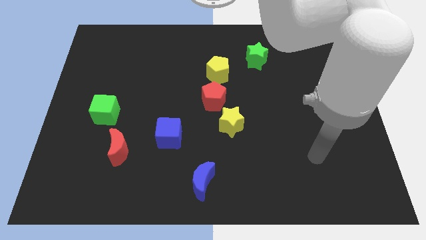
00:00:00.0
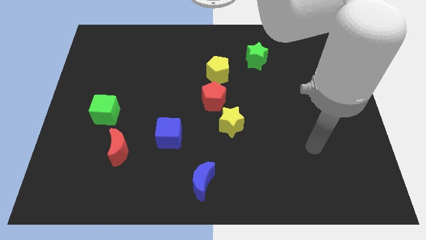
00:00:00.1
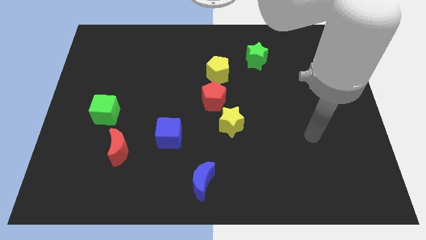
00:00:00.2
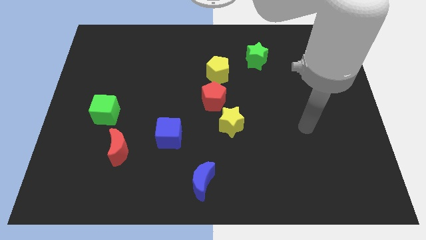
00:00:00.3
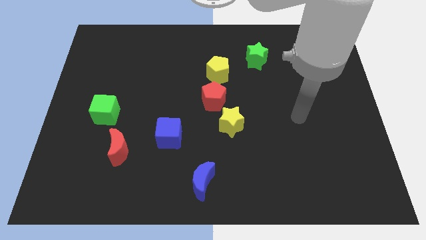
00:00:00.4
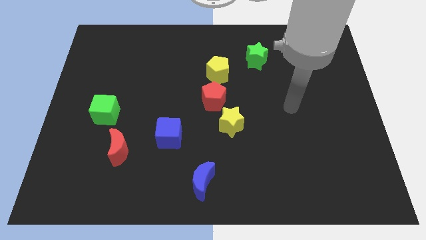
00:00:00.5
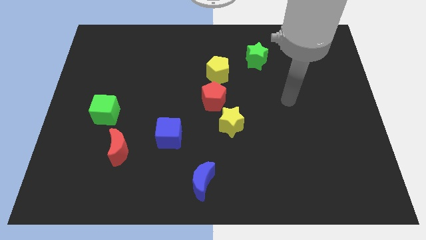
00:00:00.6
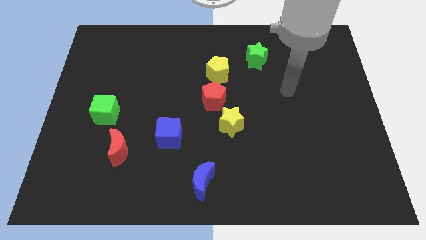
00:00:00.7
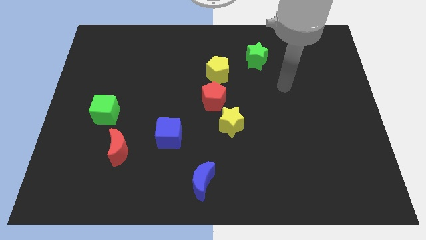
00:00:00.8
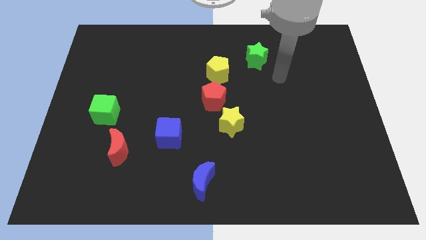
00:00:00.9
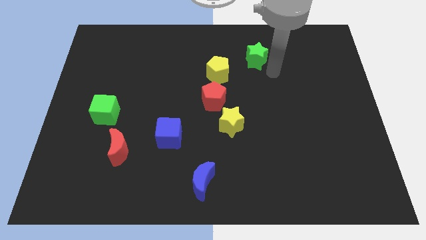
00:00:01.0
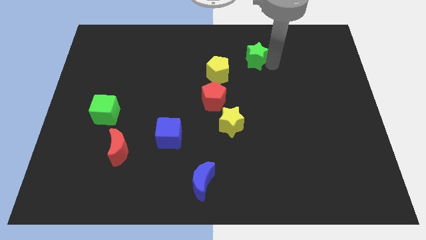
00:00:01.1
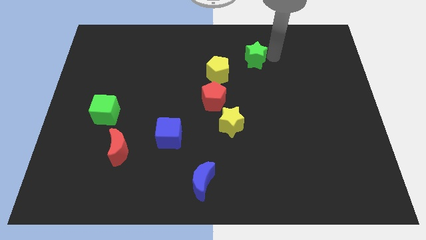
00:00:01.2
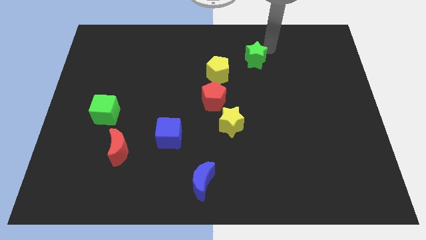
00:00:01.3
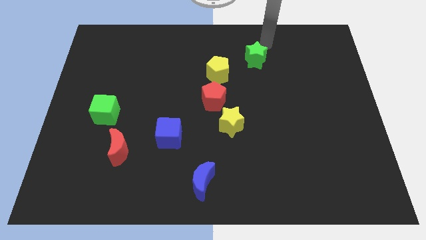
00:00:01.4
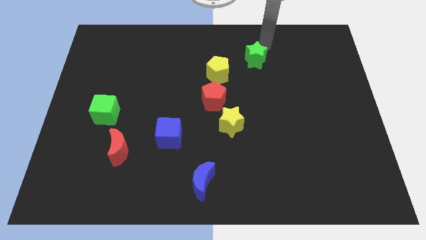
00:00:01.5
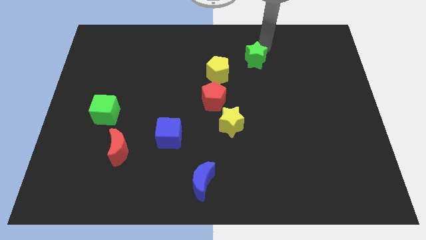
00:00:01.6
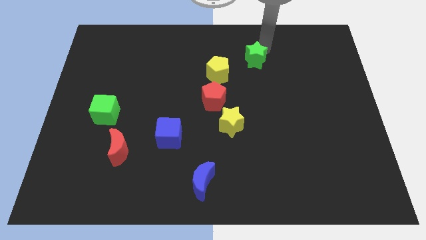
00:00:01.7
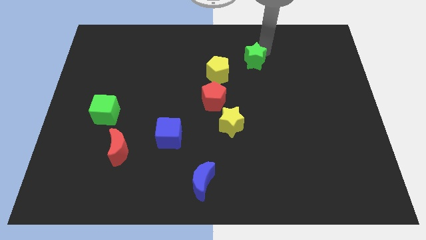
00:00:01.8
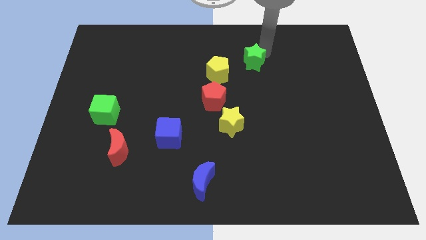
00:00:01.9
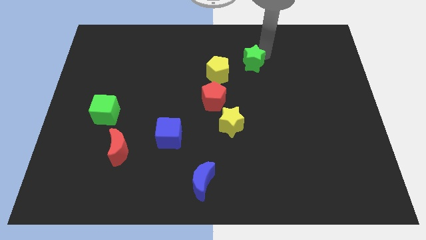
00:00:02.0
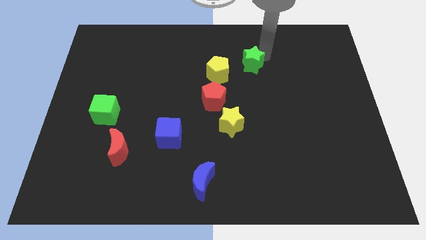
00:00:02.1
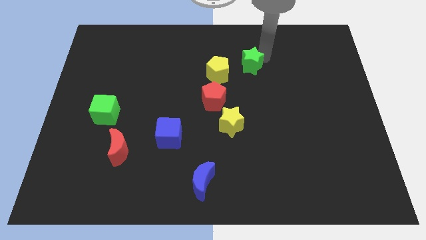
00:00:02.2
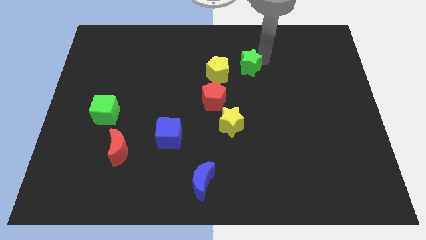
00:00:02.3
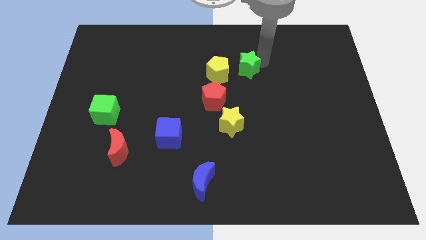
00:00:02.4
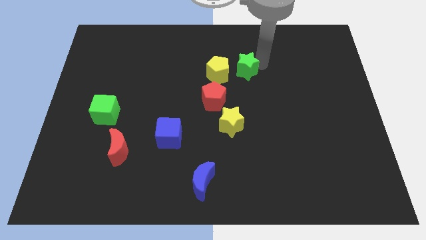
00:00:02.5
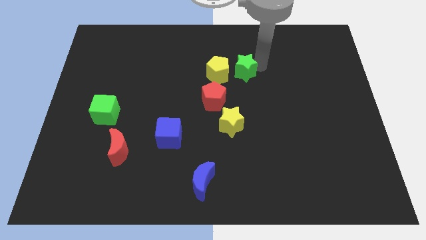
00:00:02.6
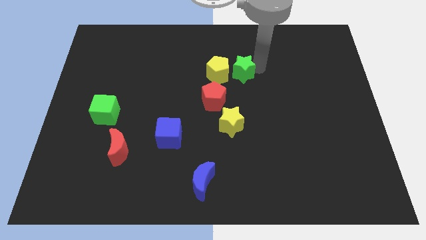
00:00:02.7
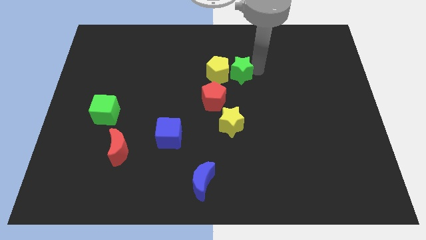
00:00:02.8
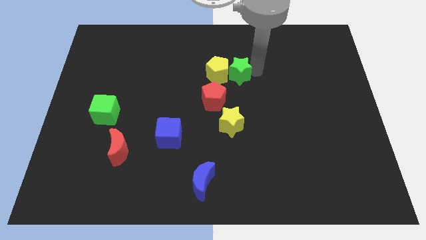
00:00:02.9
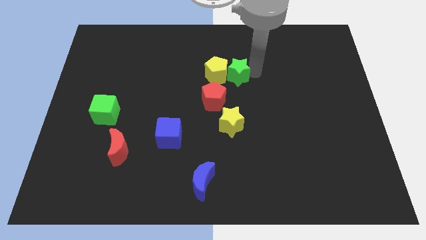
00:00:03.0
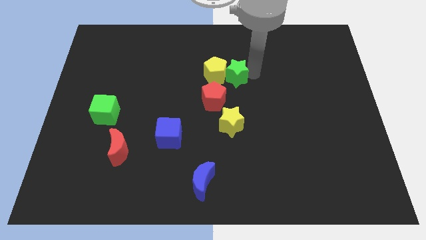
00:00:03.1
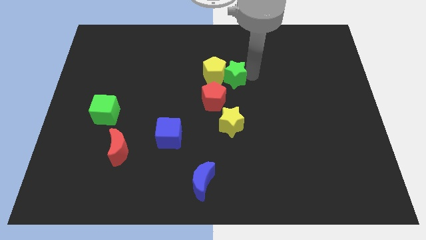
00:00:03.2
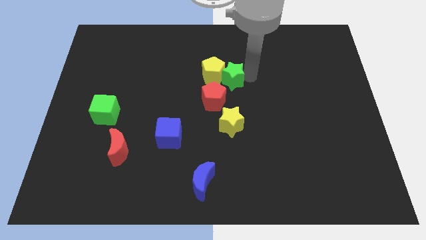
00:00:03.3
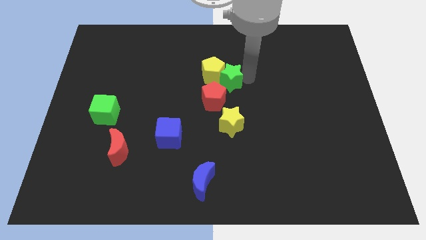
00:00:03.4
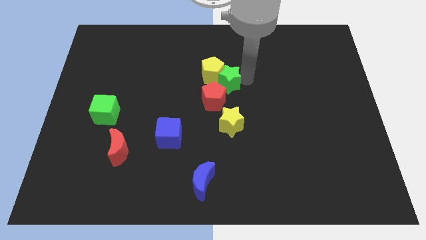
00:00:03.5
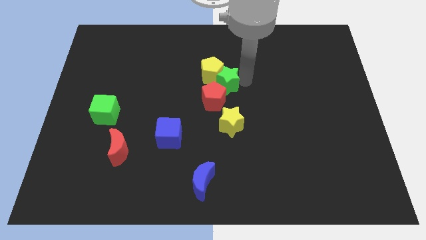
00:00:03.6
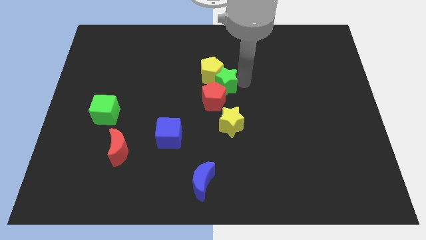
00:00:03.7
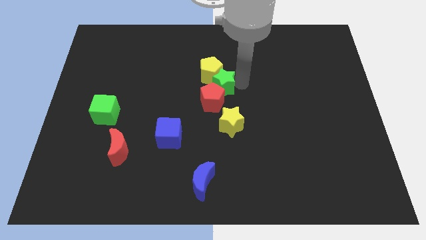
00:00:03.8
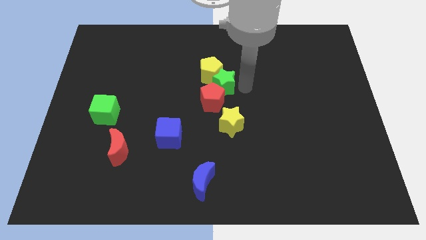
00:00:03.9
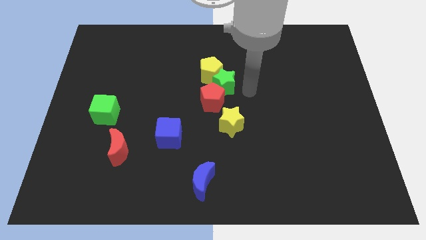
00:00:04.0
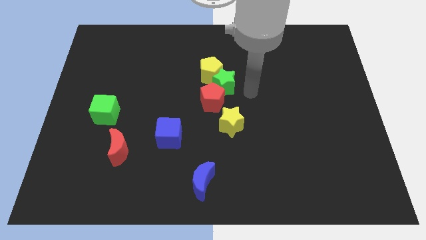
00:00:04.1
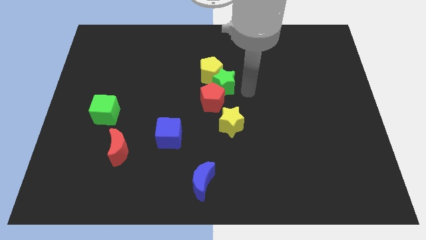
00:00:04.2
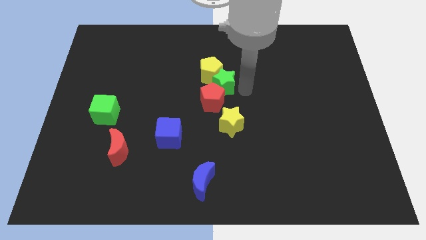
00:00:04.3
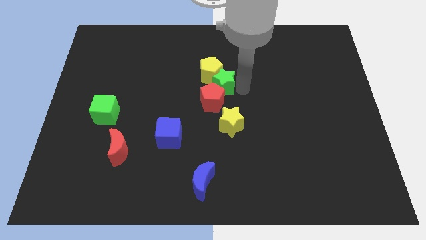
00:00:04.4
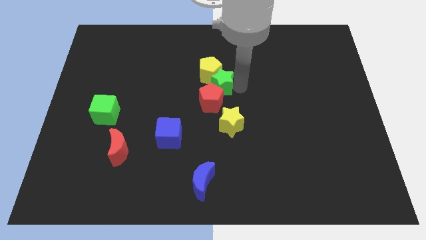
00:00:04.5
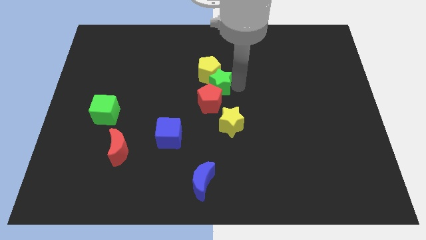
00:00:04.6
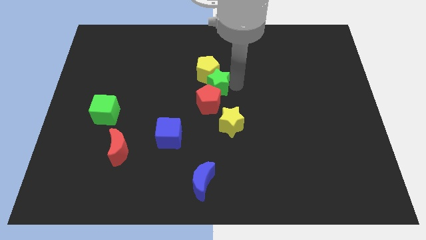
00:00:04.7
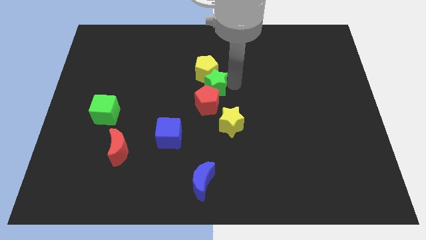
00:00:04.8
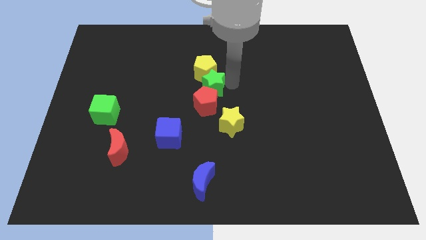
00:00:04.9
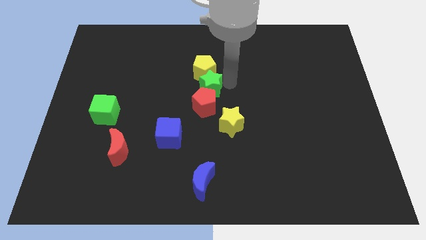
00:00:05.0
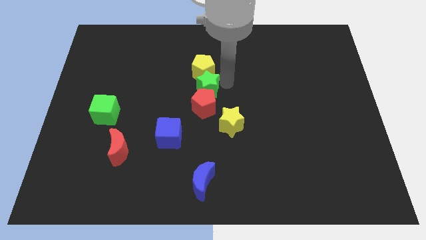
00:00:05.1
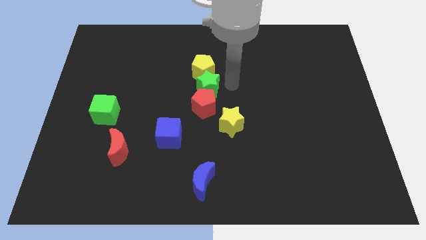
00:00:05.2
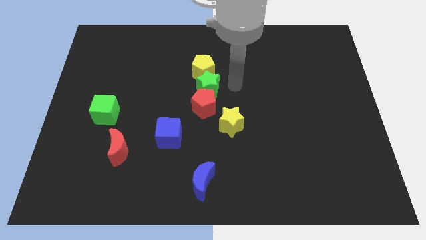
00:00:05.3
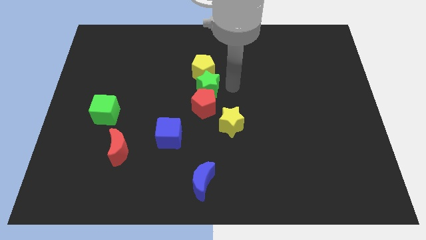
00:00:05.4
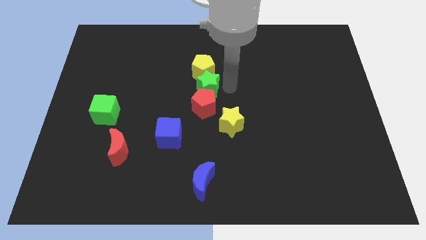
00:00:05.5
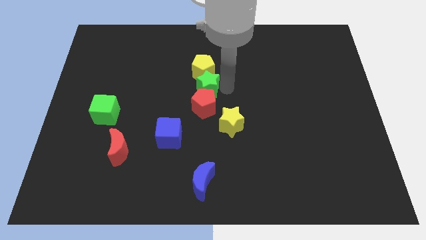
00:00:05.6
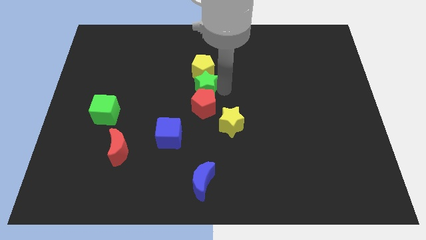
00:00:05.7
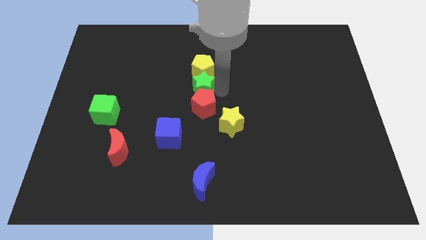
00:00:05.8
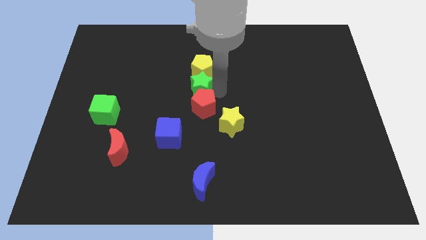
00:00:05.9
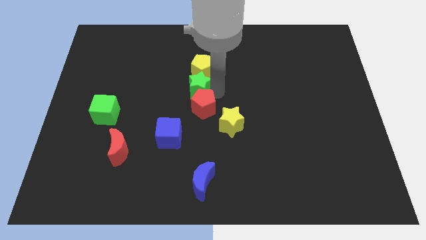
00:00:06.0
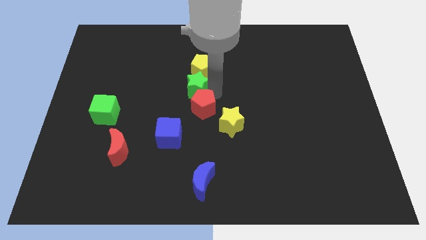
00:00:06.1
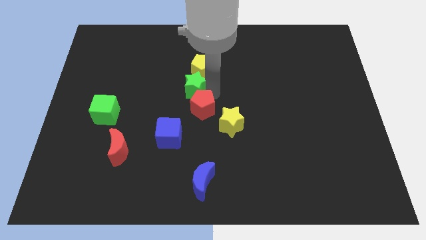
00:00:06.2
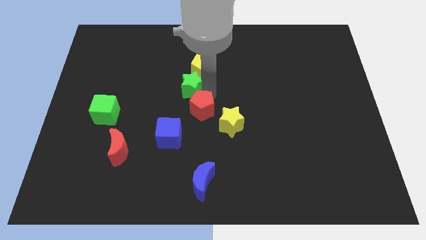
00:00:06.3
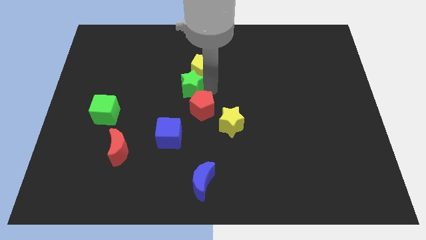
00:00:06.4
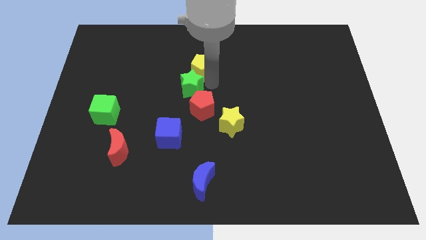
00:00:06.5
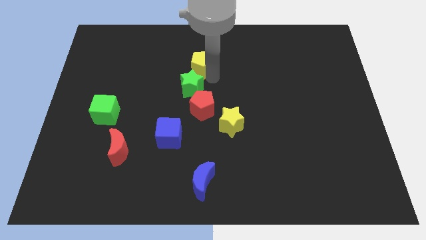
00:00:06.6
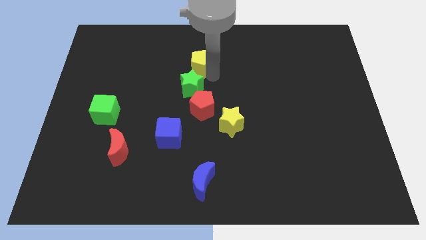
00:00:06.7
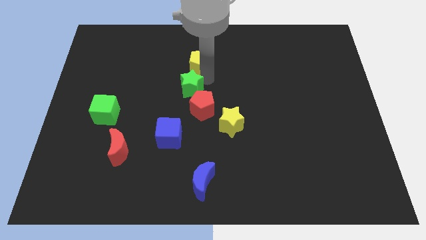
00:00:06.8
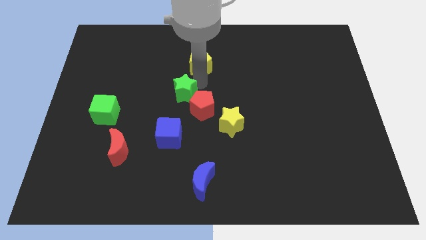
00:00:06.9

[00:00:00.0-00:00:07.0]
slide the green star just left of the red pentagon
